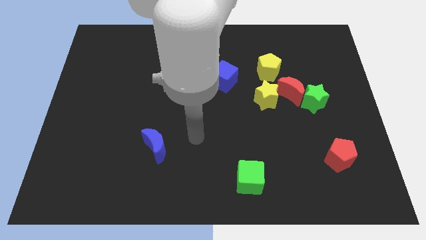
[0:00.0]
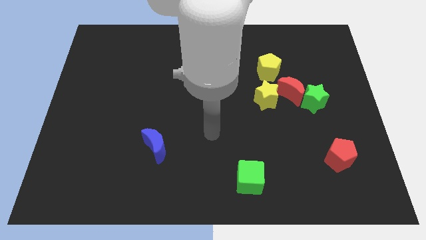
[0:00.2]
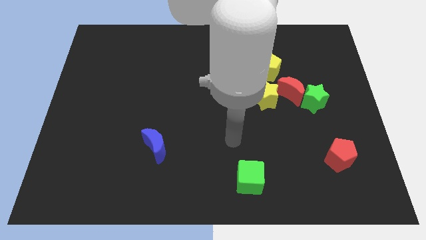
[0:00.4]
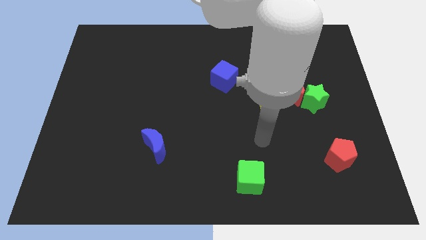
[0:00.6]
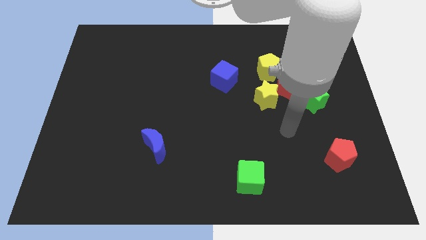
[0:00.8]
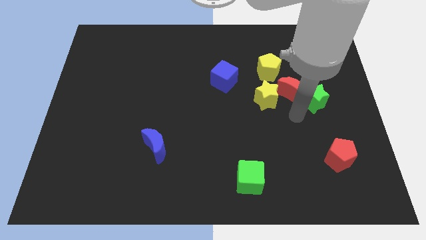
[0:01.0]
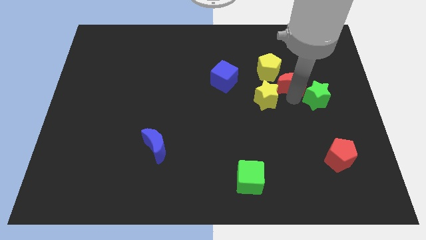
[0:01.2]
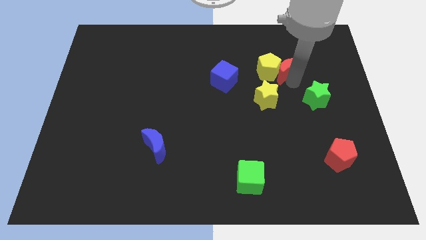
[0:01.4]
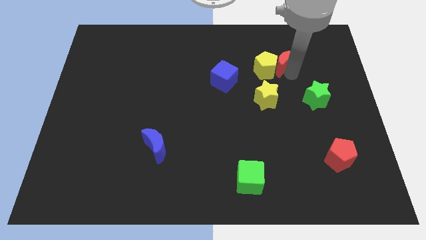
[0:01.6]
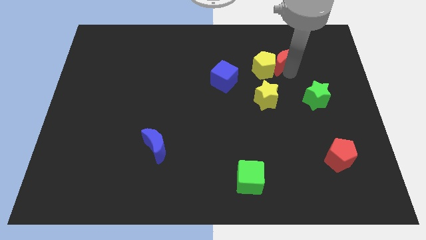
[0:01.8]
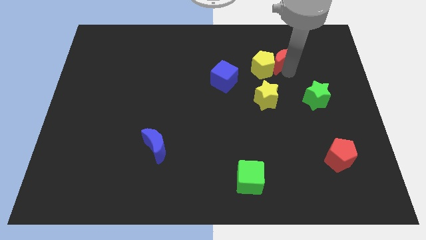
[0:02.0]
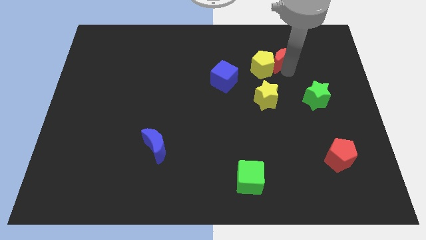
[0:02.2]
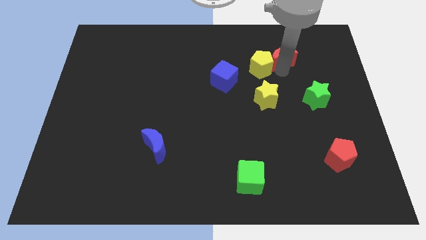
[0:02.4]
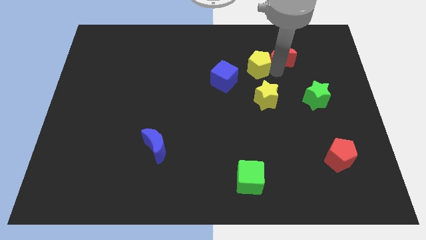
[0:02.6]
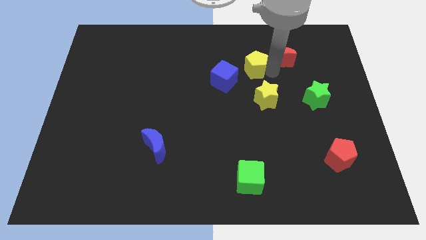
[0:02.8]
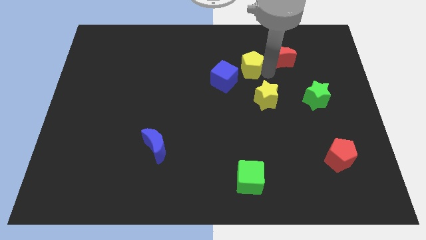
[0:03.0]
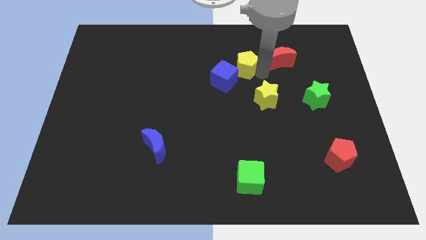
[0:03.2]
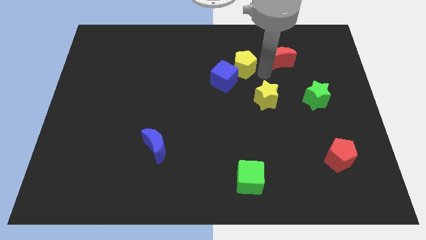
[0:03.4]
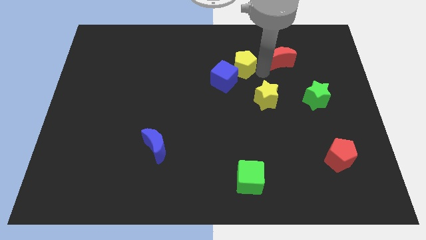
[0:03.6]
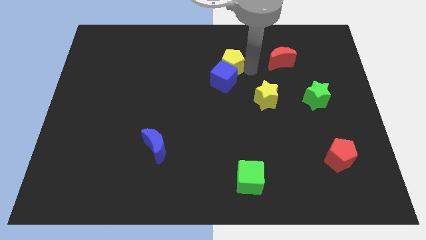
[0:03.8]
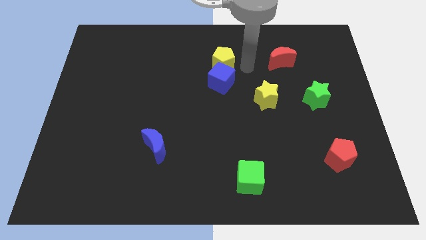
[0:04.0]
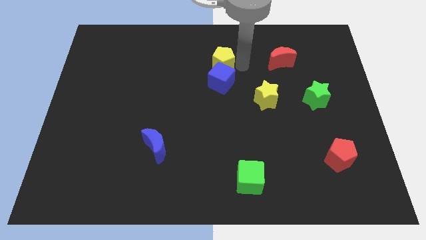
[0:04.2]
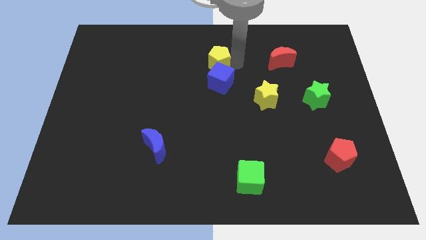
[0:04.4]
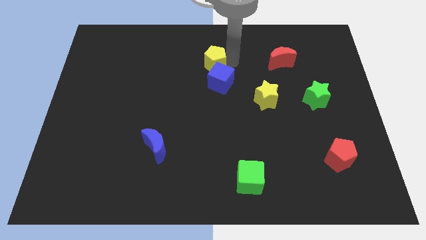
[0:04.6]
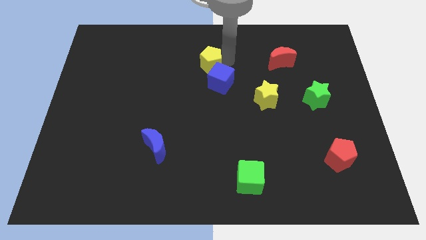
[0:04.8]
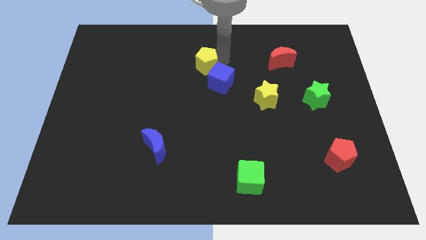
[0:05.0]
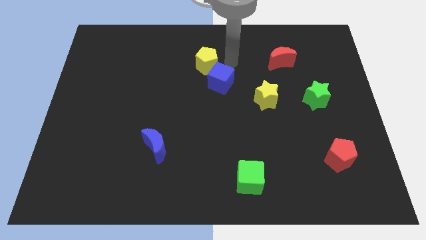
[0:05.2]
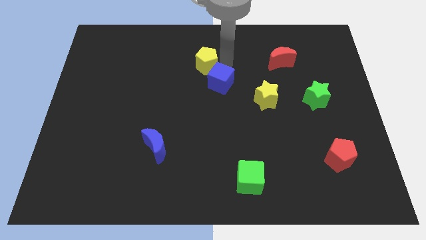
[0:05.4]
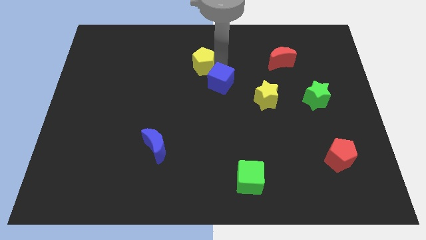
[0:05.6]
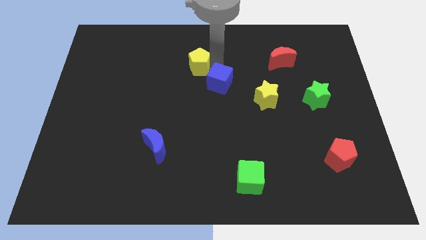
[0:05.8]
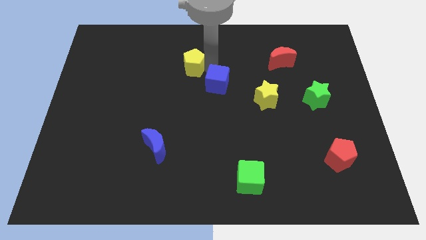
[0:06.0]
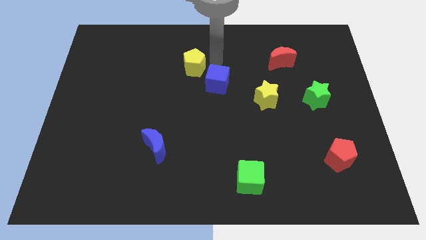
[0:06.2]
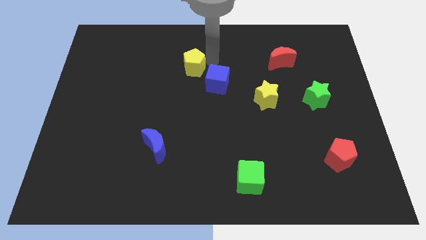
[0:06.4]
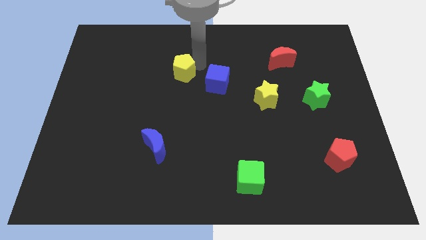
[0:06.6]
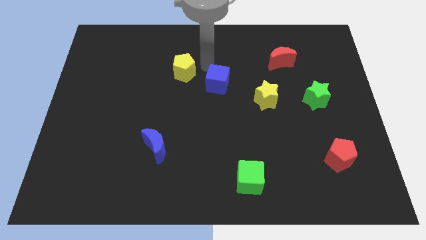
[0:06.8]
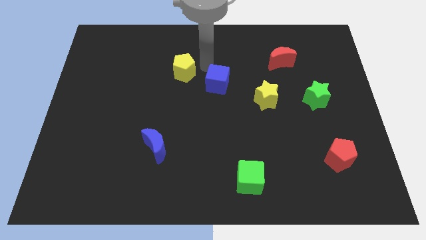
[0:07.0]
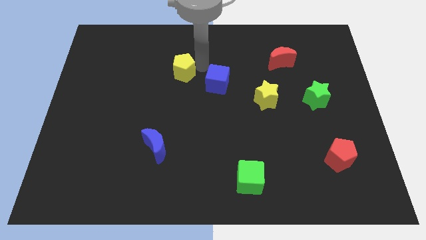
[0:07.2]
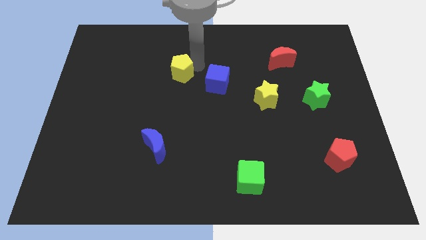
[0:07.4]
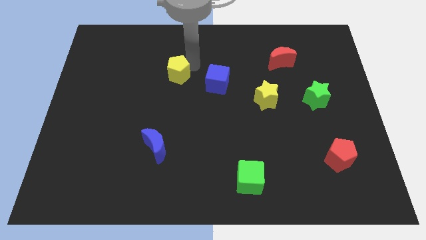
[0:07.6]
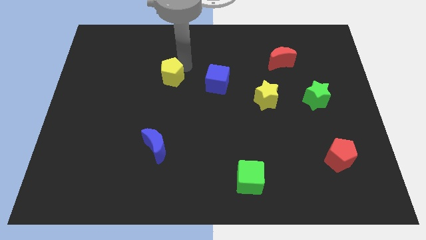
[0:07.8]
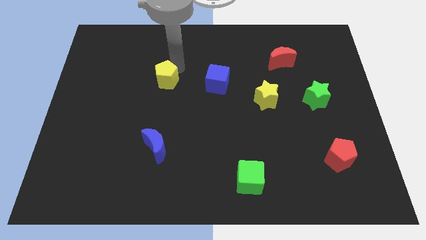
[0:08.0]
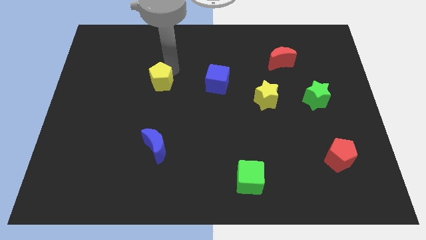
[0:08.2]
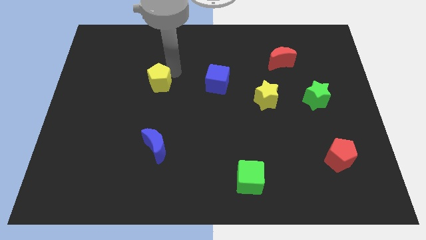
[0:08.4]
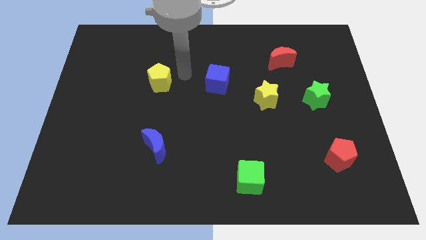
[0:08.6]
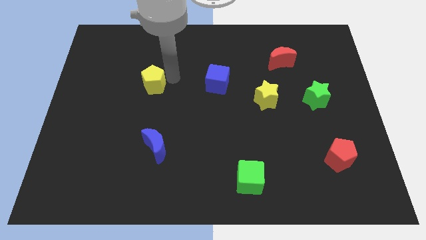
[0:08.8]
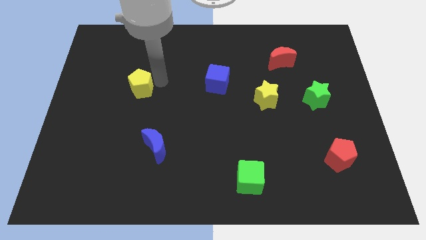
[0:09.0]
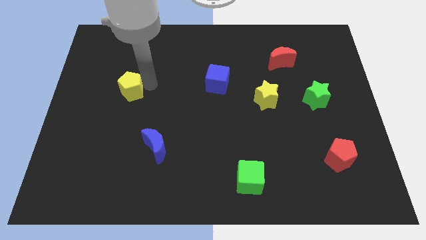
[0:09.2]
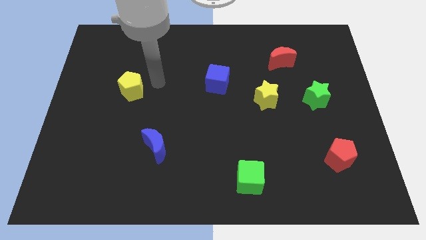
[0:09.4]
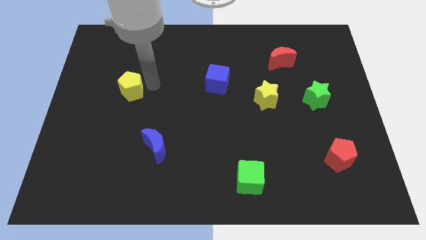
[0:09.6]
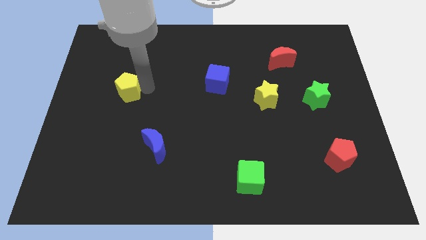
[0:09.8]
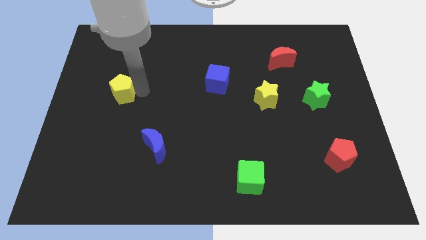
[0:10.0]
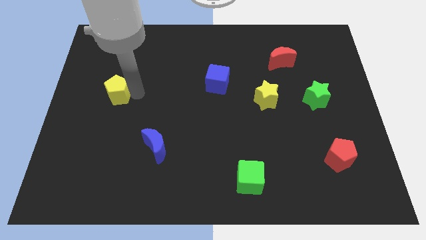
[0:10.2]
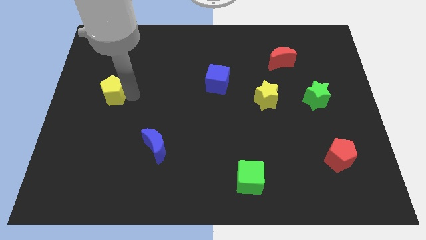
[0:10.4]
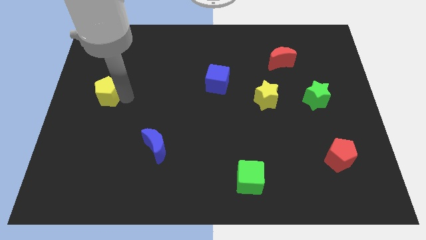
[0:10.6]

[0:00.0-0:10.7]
slide the yellow pentagon to the left side of the board

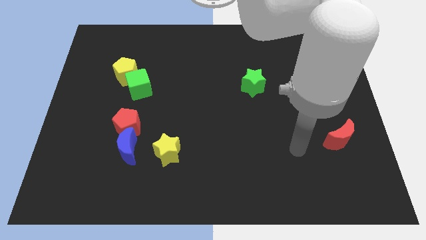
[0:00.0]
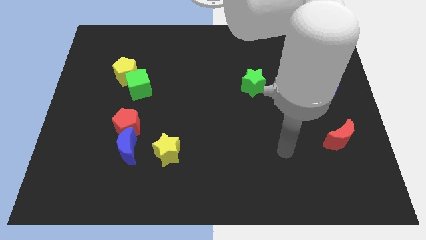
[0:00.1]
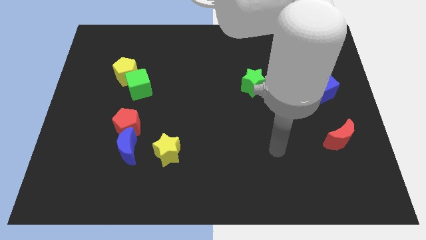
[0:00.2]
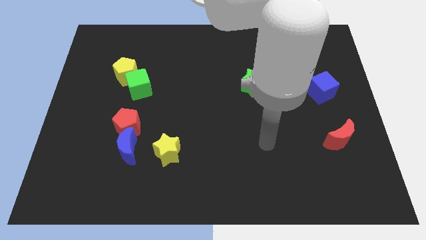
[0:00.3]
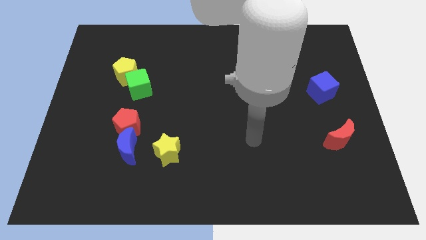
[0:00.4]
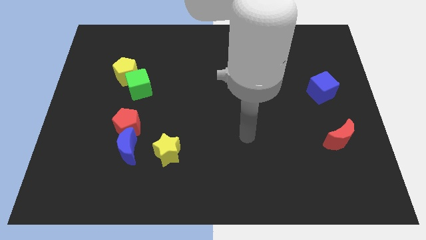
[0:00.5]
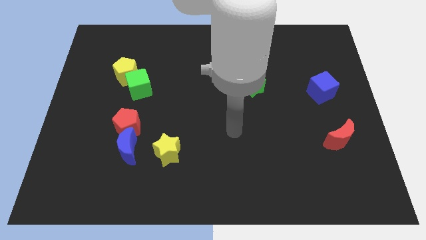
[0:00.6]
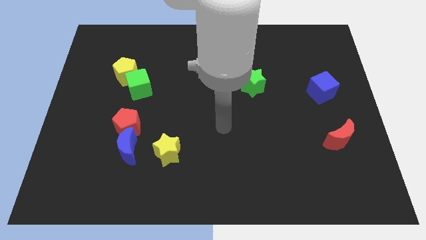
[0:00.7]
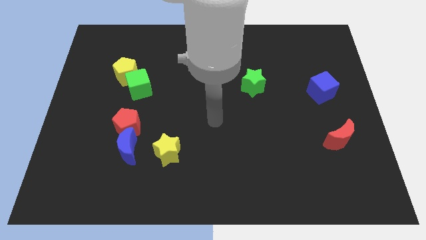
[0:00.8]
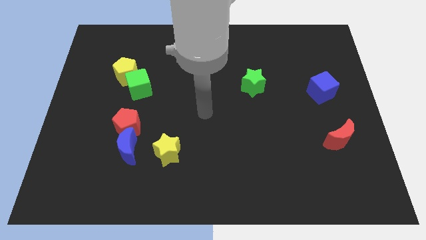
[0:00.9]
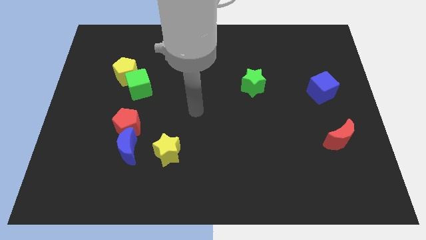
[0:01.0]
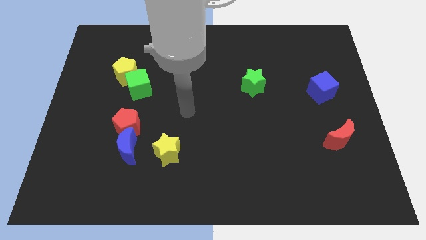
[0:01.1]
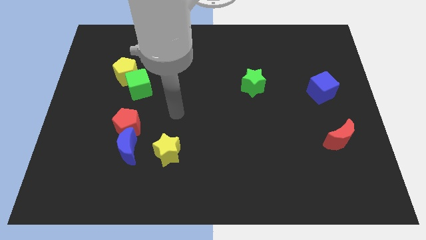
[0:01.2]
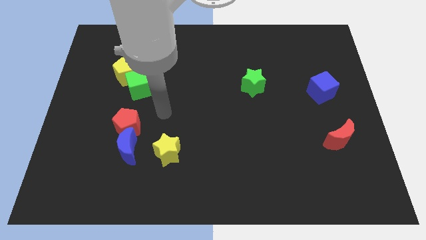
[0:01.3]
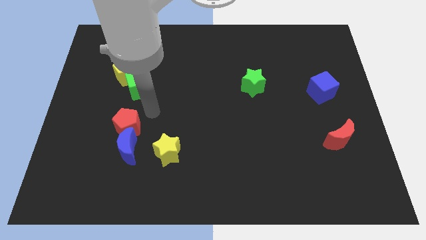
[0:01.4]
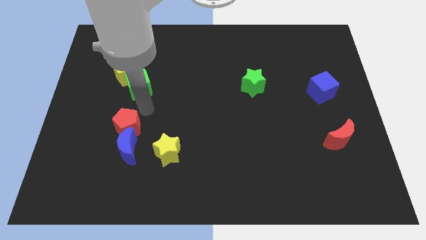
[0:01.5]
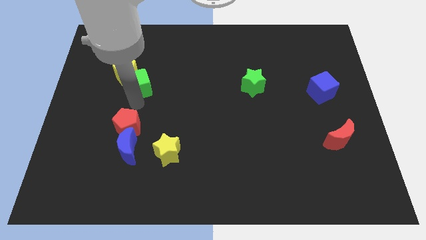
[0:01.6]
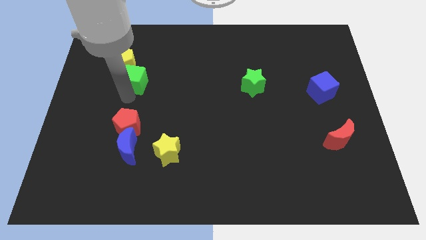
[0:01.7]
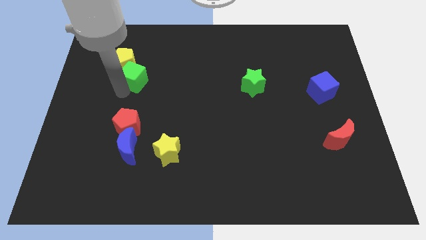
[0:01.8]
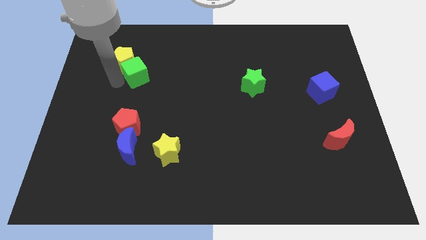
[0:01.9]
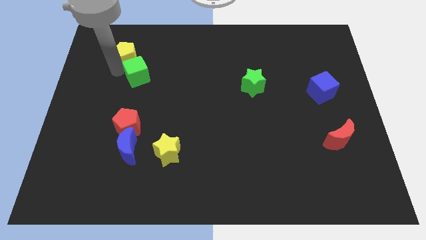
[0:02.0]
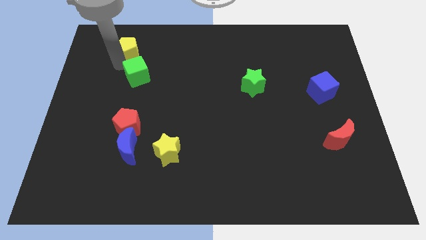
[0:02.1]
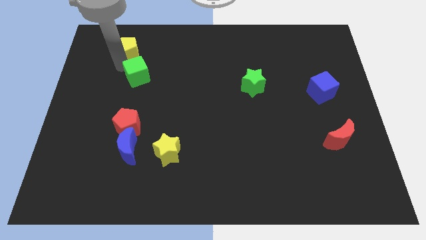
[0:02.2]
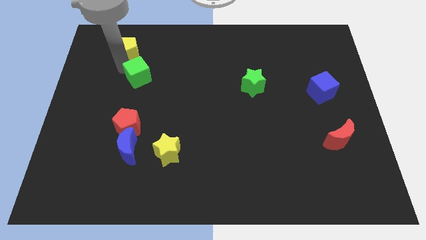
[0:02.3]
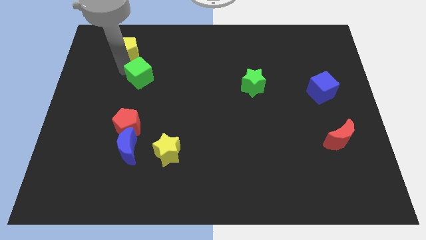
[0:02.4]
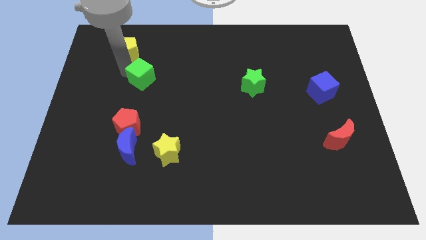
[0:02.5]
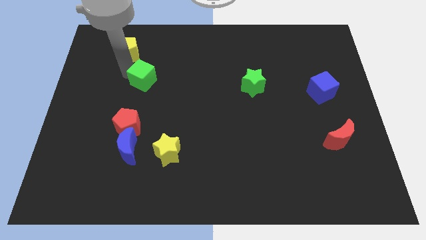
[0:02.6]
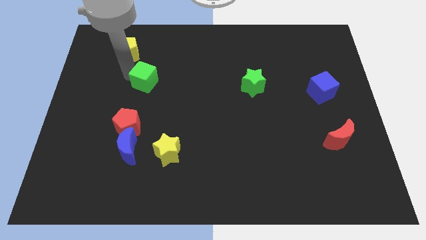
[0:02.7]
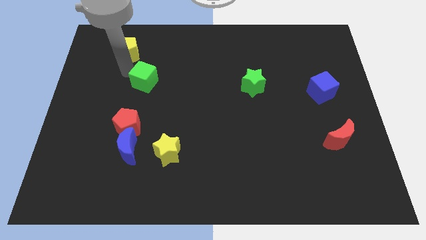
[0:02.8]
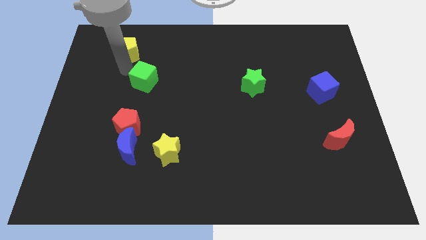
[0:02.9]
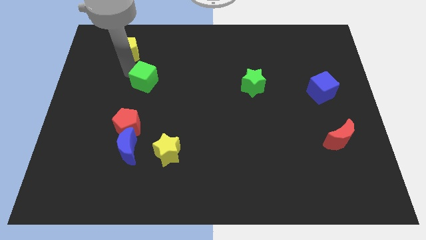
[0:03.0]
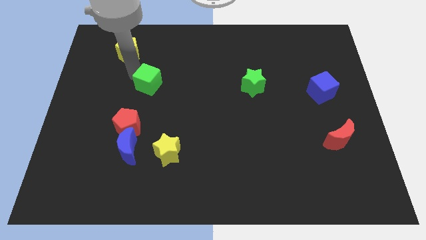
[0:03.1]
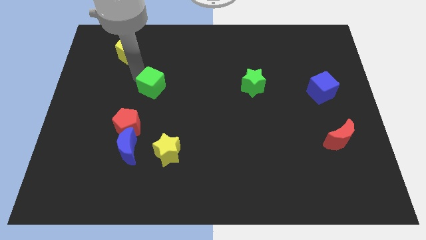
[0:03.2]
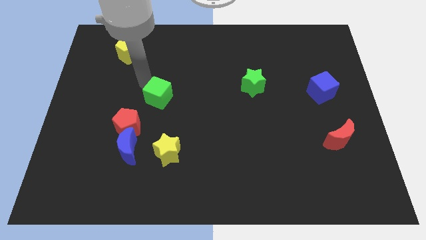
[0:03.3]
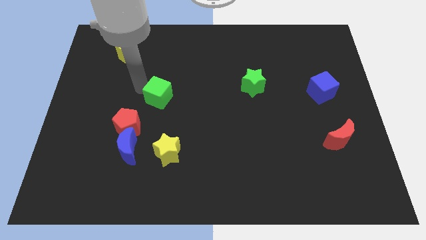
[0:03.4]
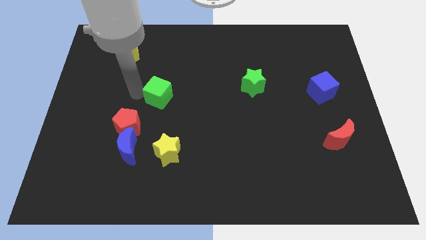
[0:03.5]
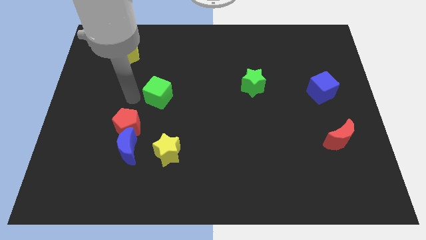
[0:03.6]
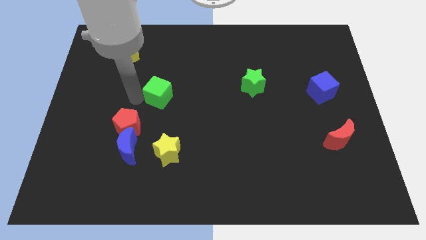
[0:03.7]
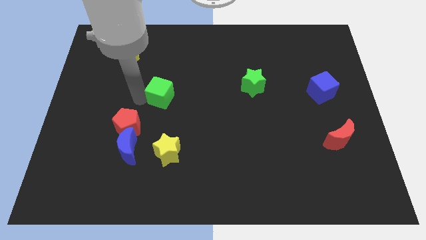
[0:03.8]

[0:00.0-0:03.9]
push the green cube to the center
